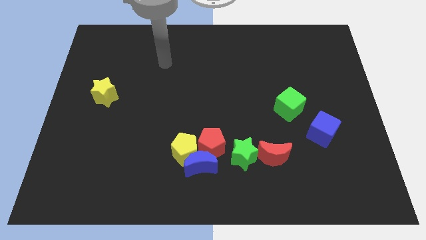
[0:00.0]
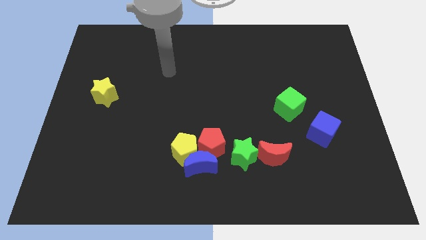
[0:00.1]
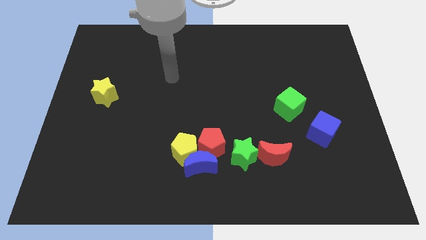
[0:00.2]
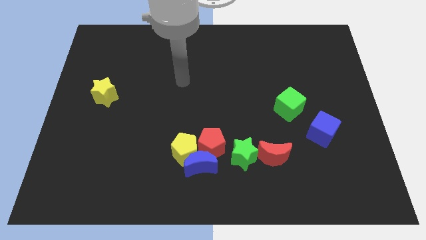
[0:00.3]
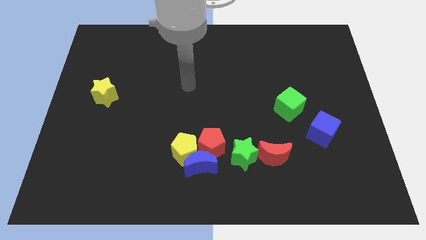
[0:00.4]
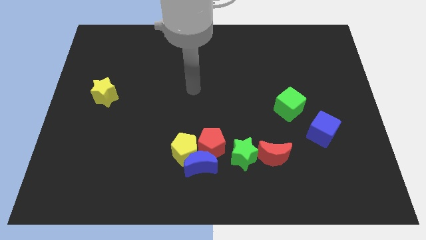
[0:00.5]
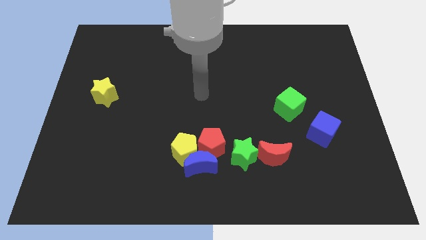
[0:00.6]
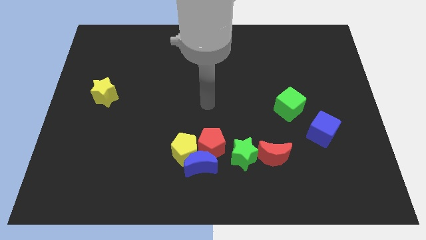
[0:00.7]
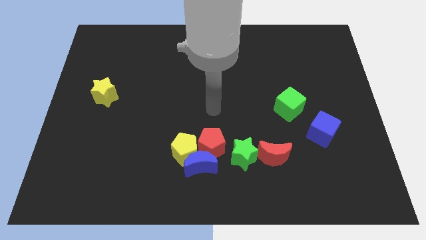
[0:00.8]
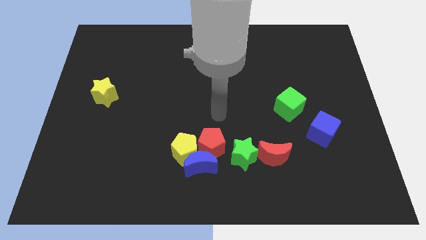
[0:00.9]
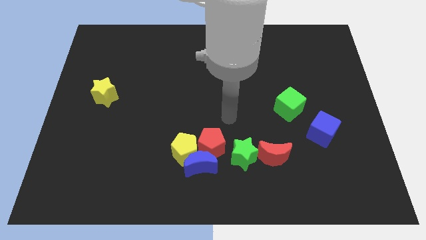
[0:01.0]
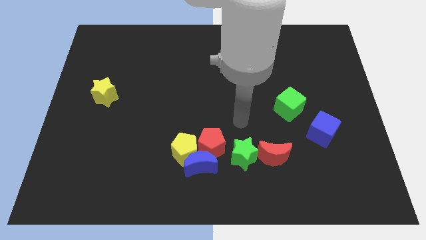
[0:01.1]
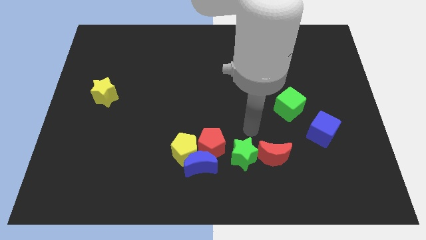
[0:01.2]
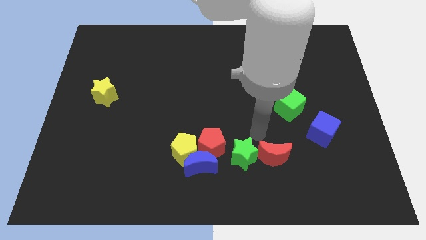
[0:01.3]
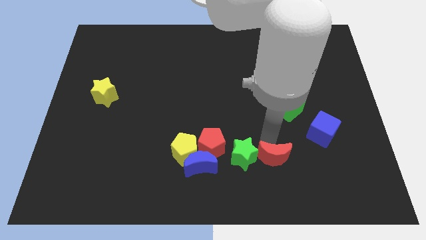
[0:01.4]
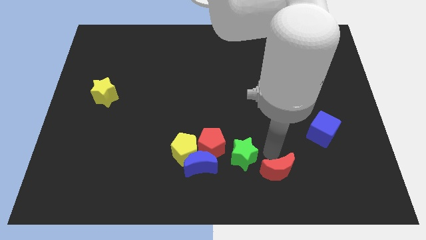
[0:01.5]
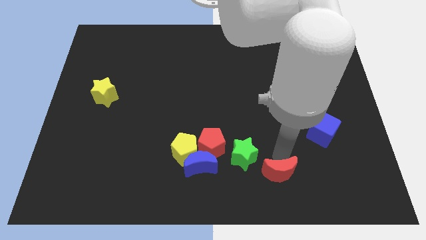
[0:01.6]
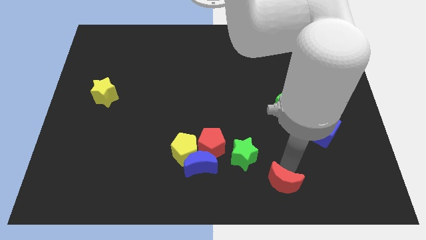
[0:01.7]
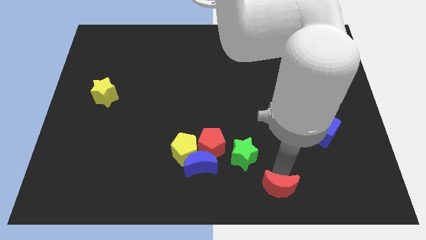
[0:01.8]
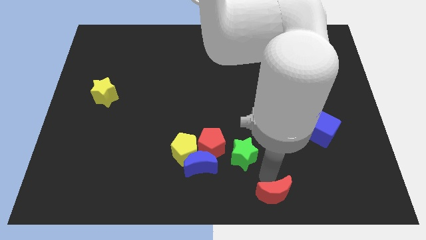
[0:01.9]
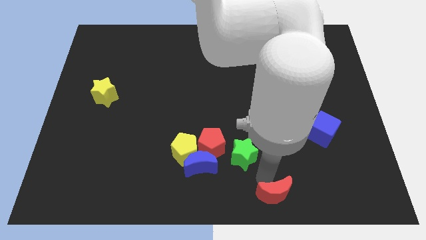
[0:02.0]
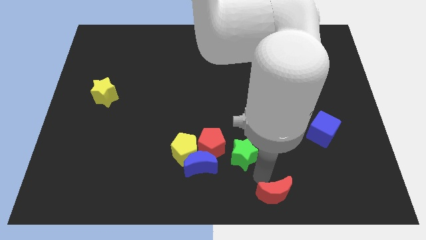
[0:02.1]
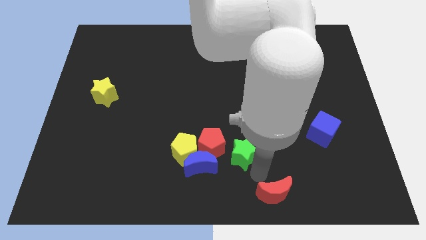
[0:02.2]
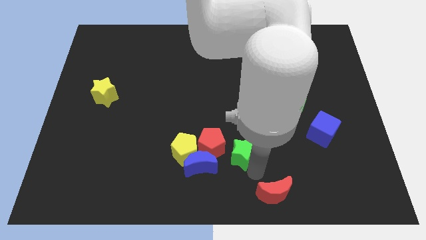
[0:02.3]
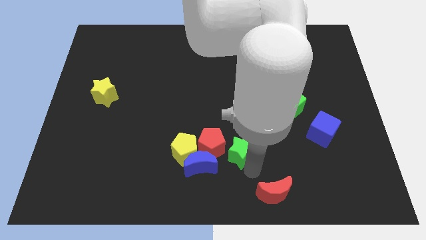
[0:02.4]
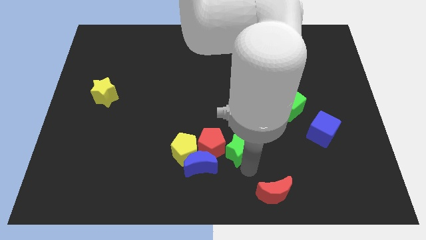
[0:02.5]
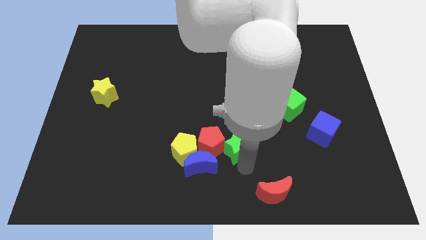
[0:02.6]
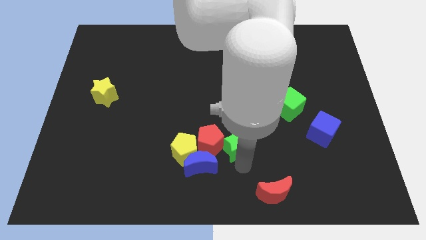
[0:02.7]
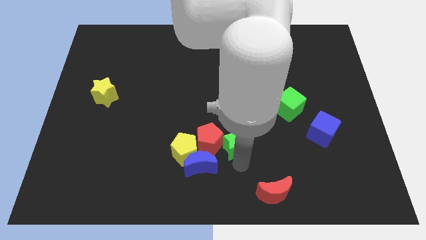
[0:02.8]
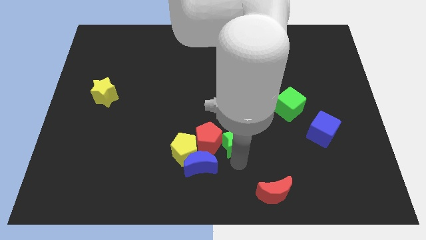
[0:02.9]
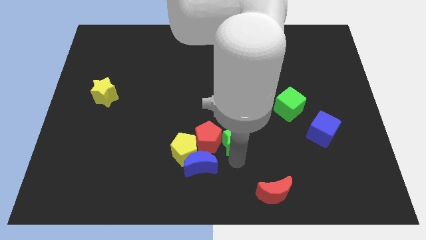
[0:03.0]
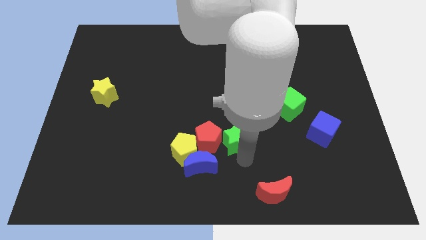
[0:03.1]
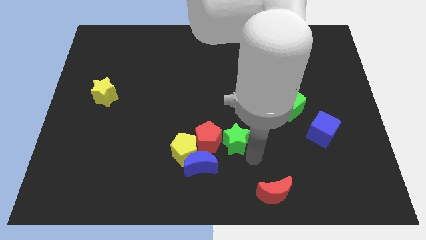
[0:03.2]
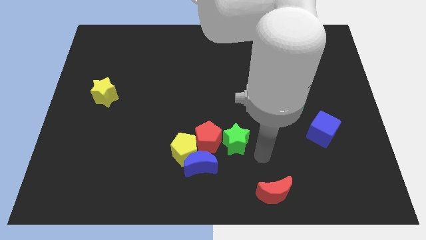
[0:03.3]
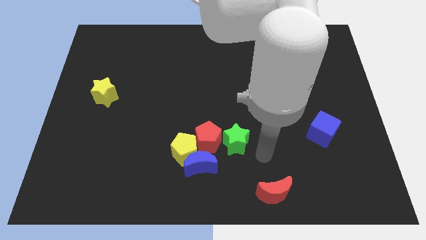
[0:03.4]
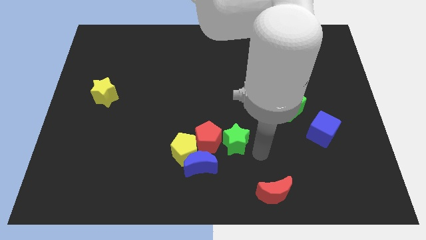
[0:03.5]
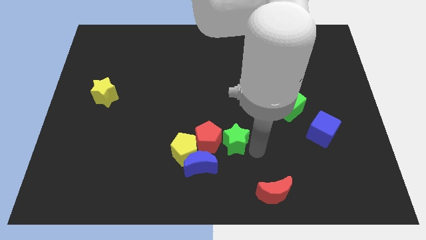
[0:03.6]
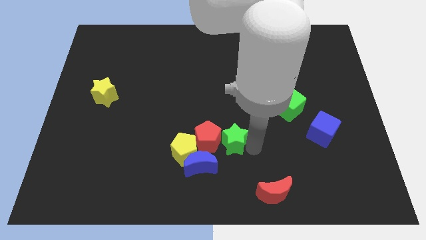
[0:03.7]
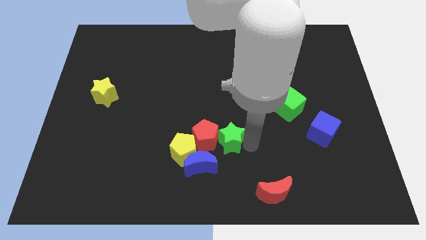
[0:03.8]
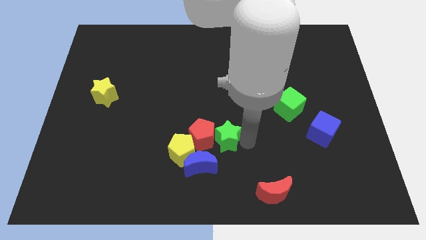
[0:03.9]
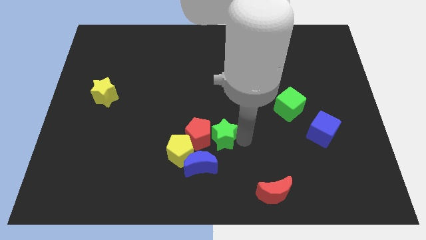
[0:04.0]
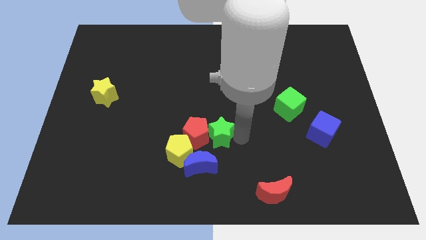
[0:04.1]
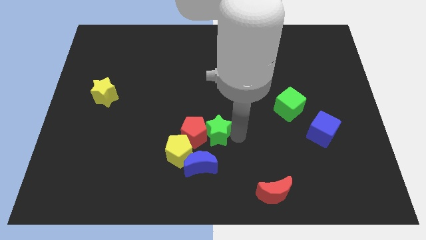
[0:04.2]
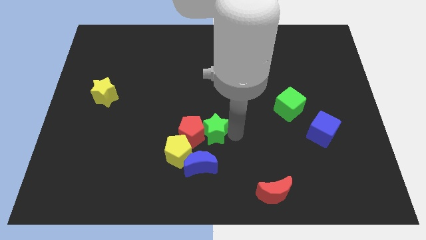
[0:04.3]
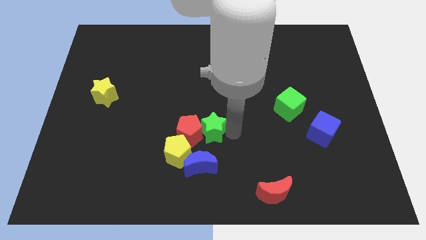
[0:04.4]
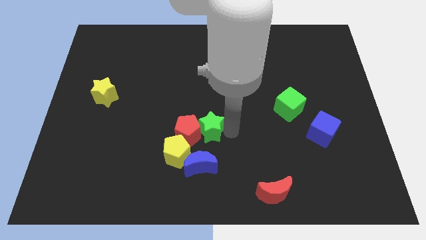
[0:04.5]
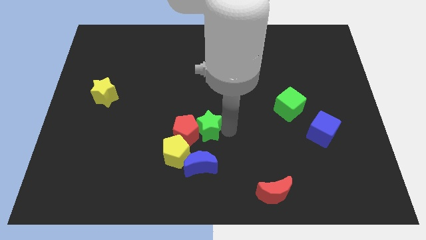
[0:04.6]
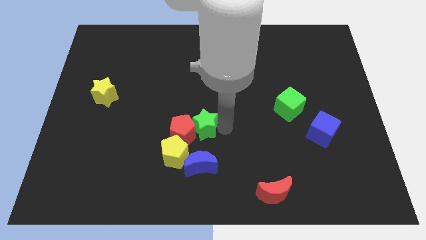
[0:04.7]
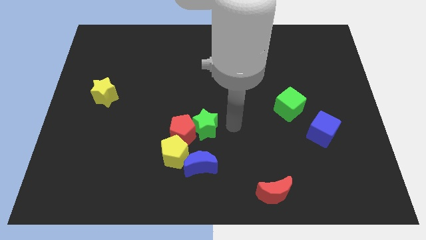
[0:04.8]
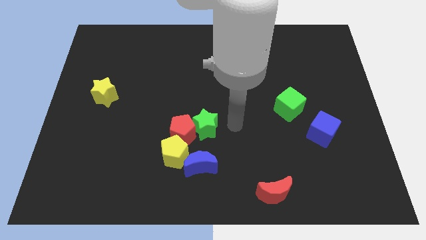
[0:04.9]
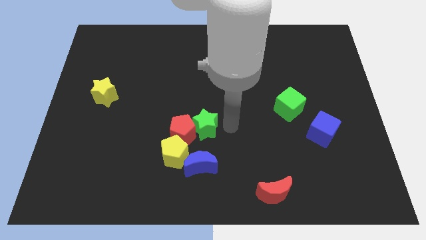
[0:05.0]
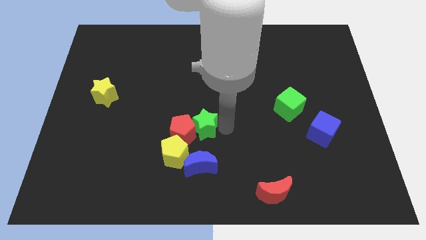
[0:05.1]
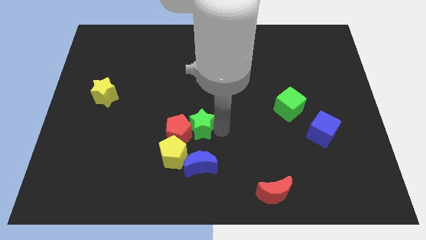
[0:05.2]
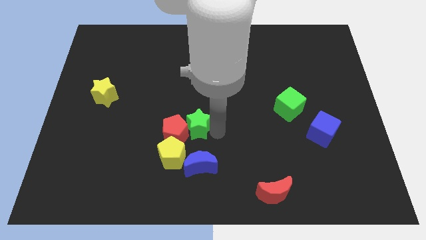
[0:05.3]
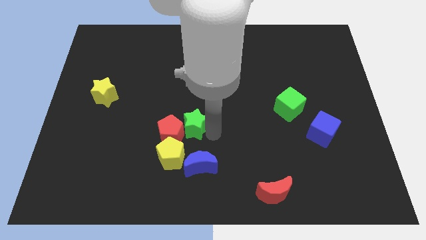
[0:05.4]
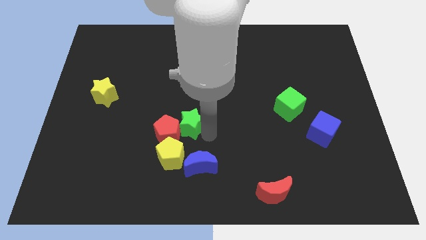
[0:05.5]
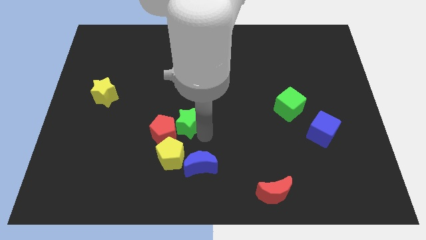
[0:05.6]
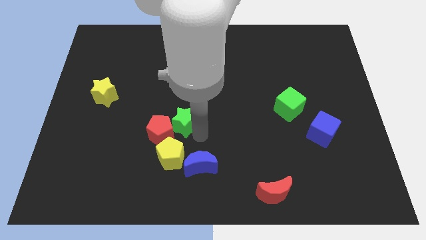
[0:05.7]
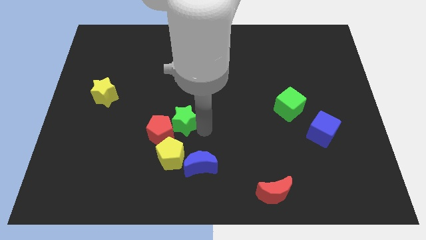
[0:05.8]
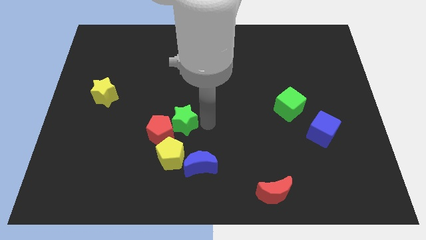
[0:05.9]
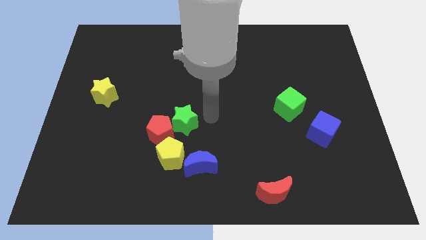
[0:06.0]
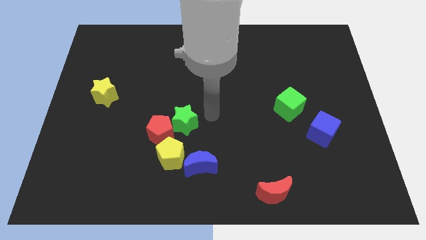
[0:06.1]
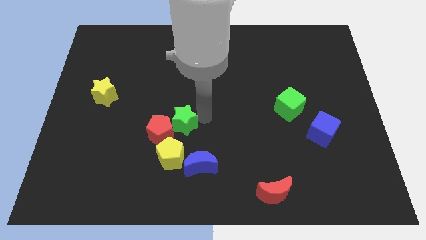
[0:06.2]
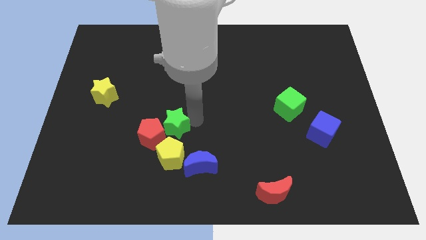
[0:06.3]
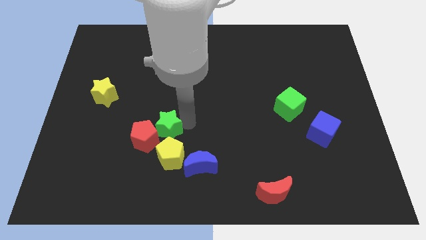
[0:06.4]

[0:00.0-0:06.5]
slide the green star to the top left of the yellow pentagon
